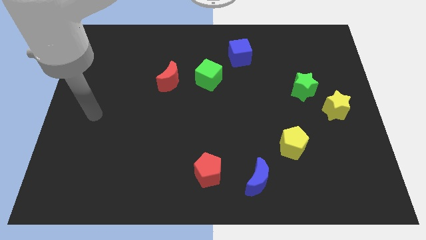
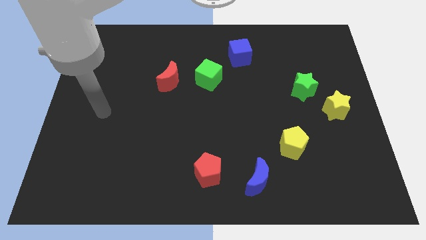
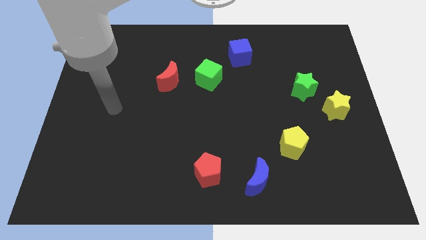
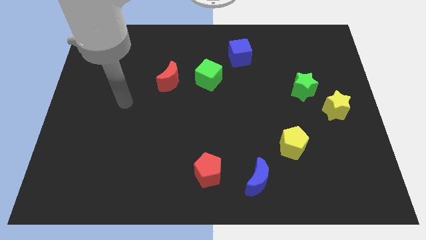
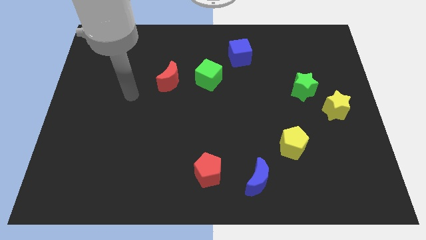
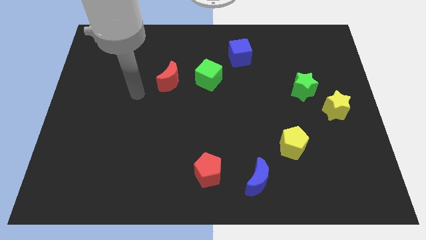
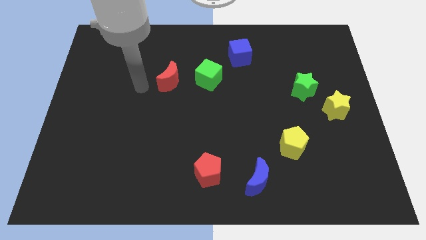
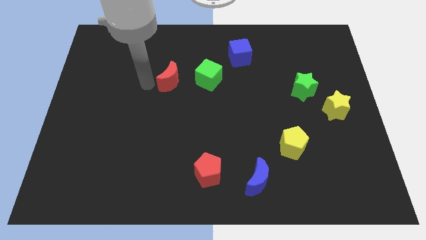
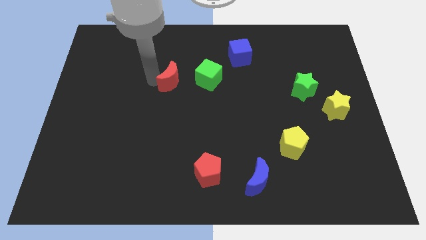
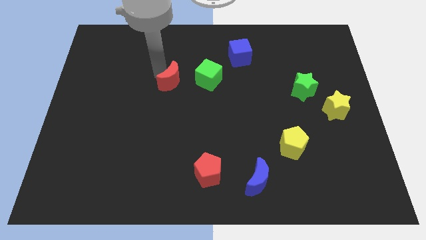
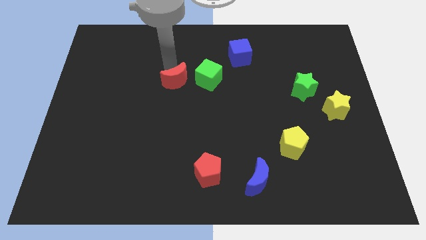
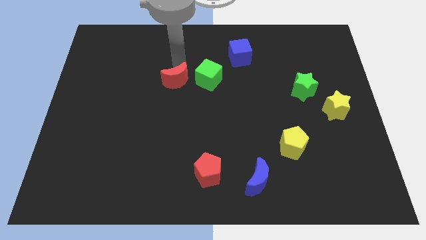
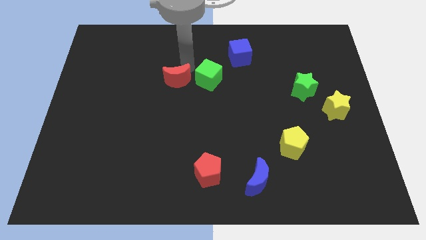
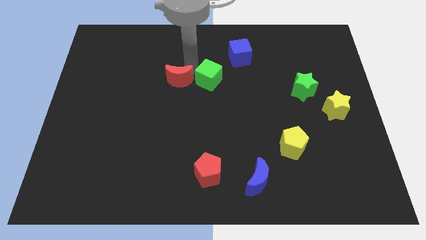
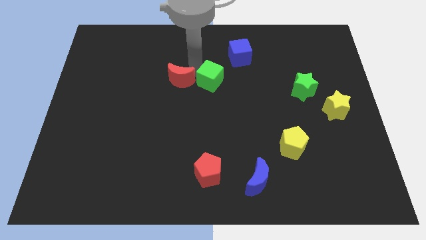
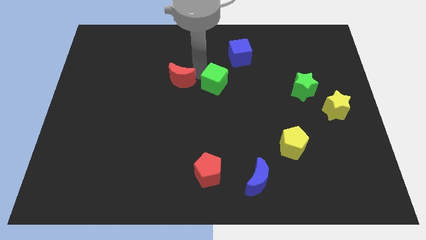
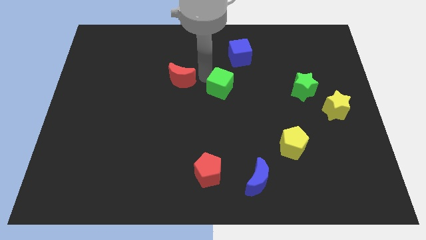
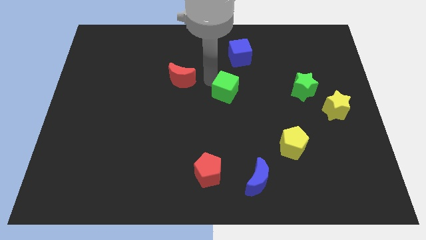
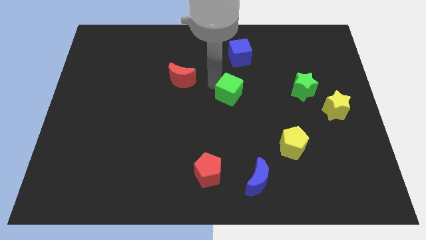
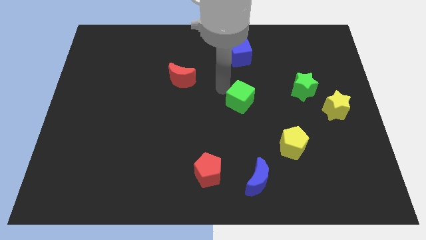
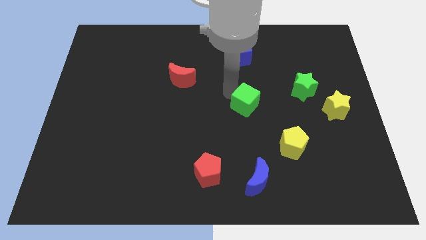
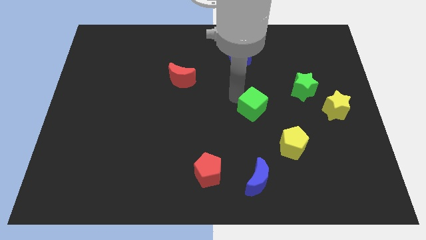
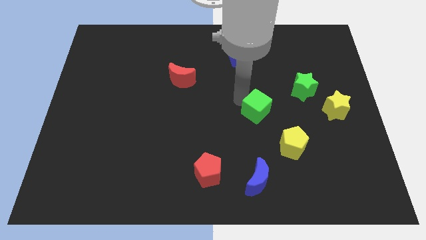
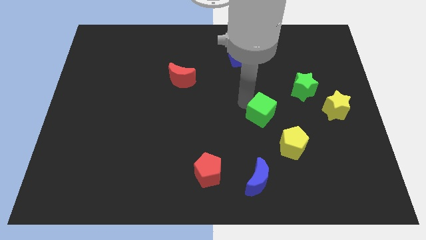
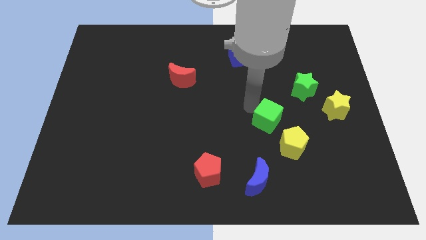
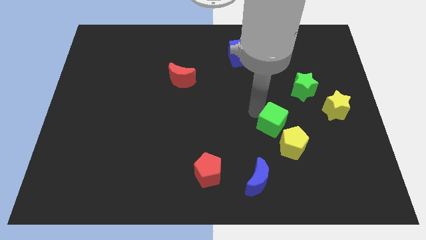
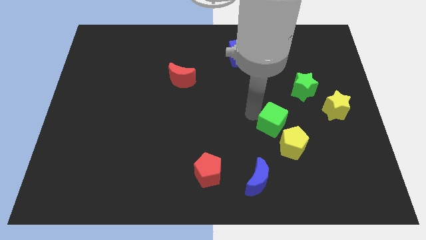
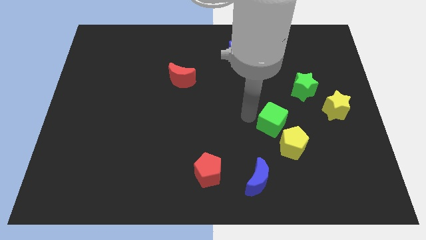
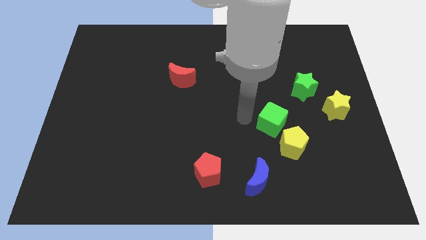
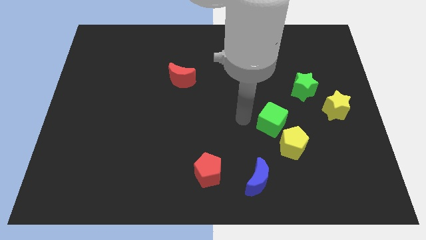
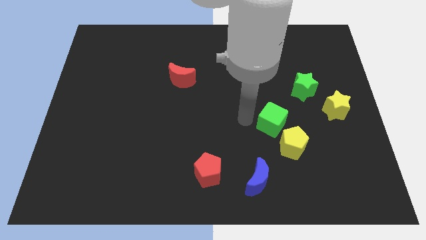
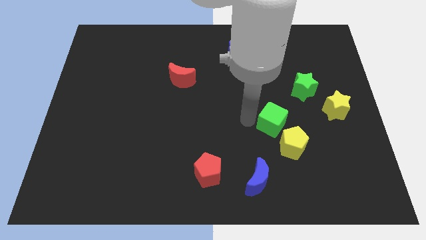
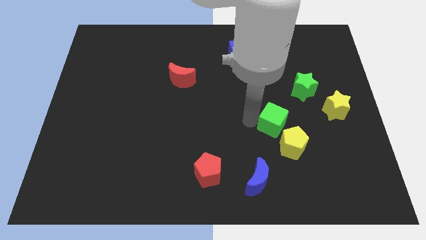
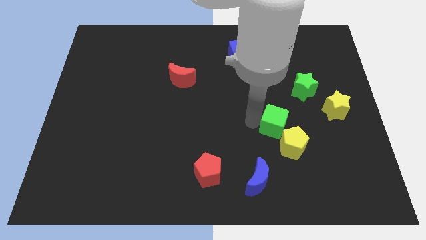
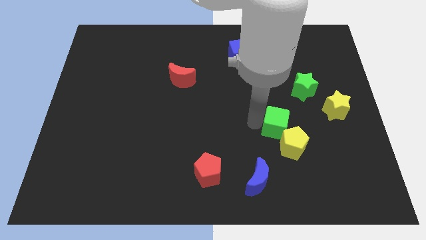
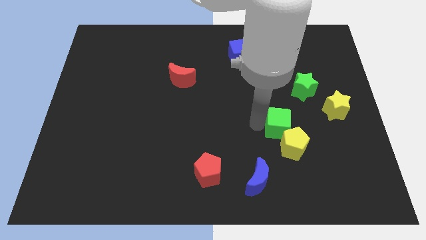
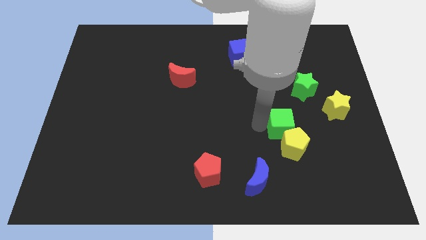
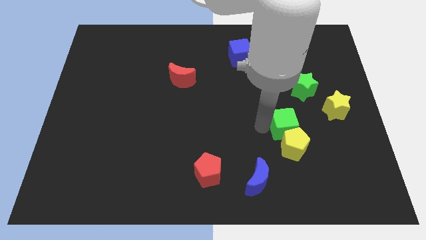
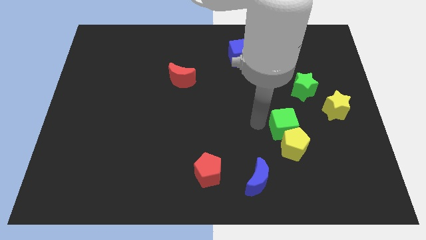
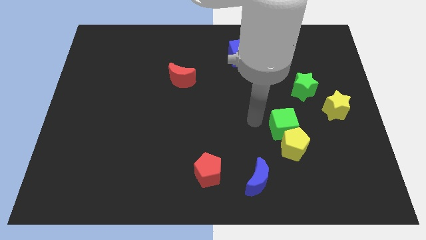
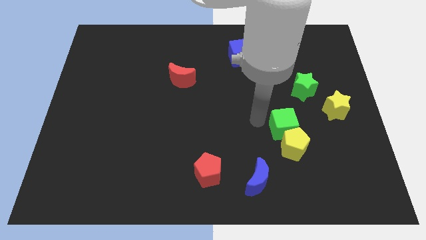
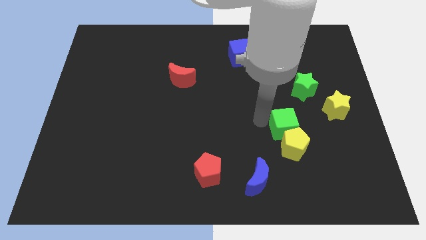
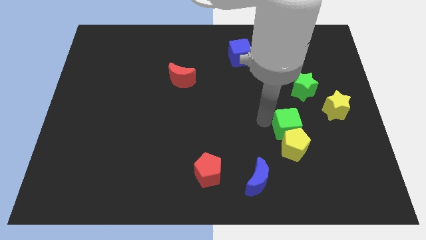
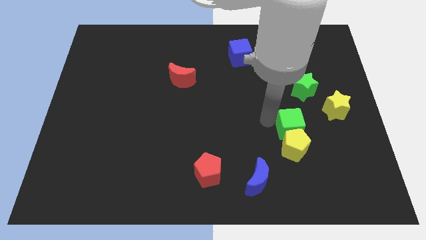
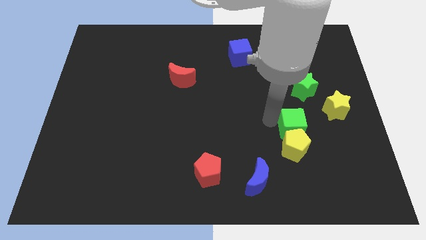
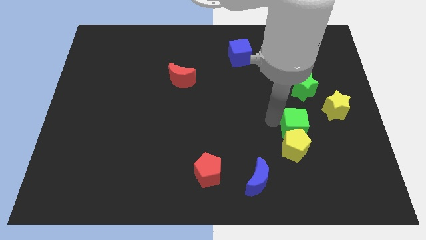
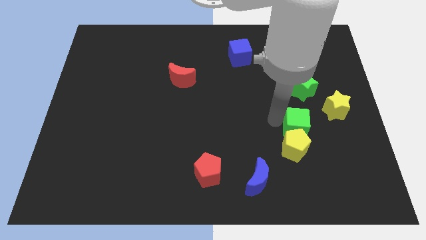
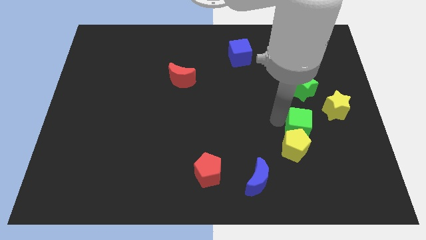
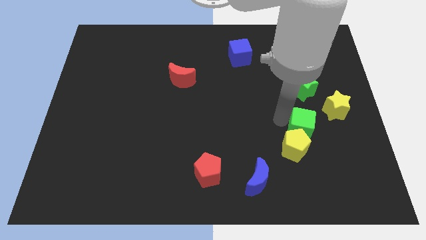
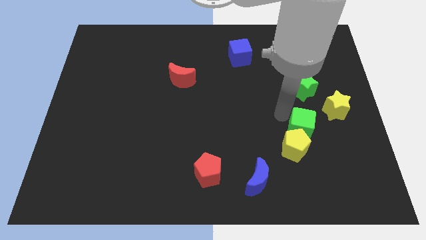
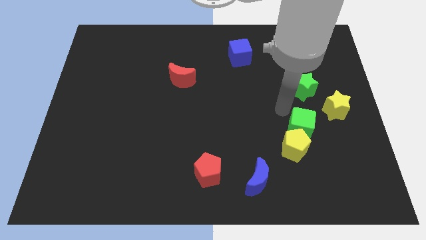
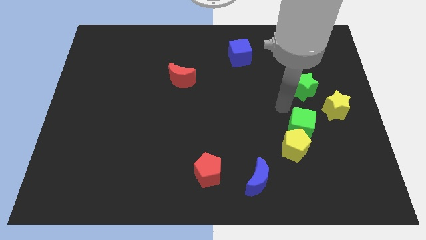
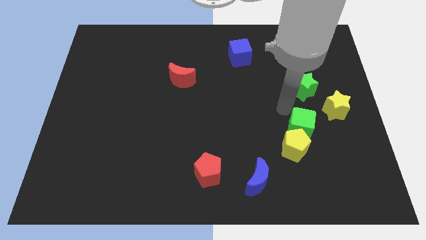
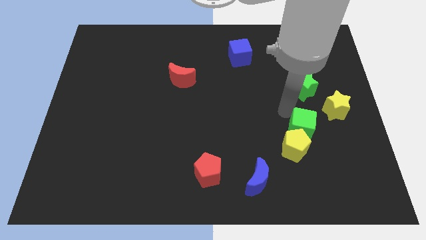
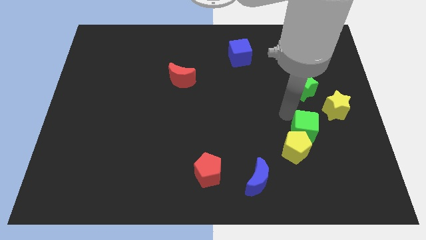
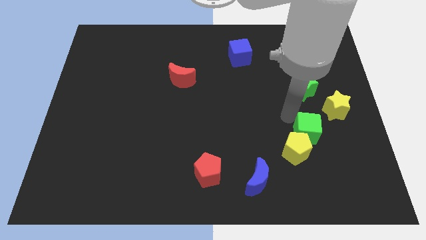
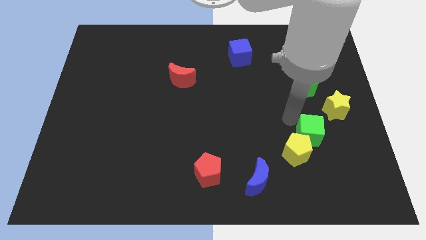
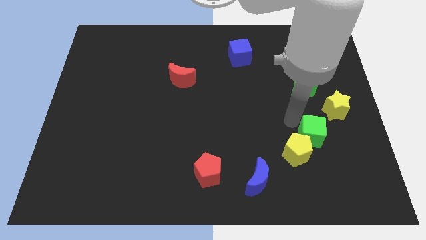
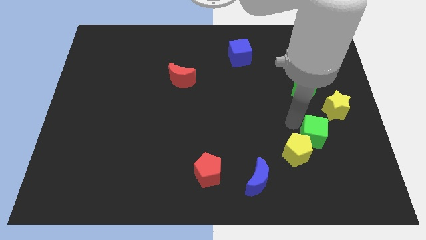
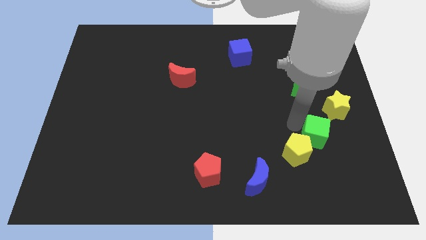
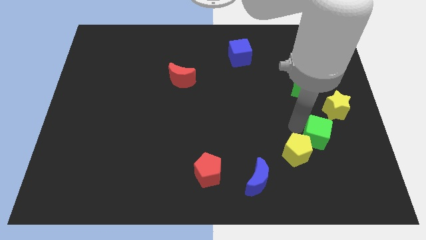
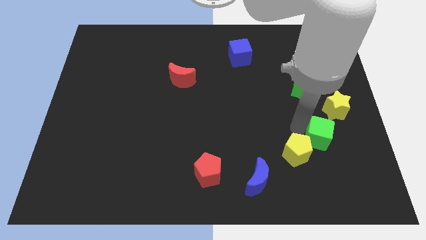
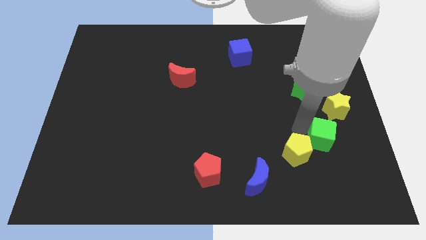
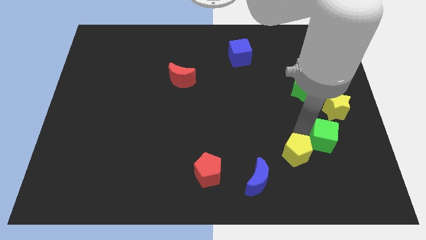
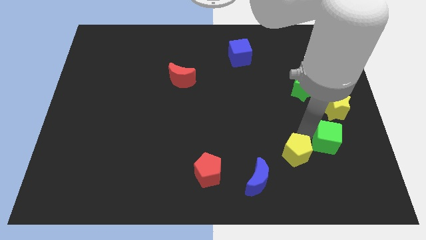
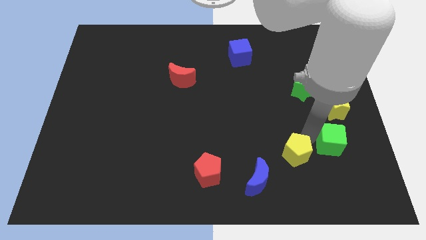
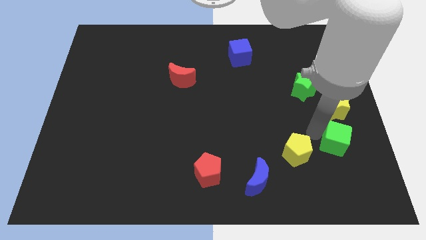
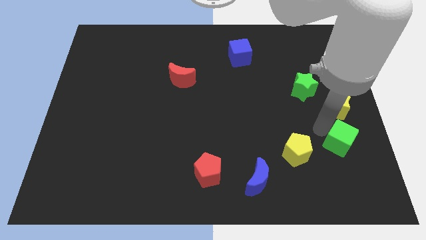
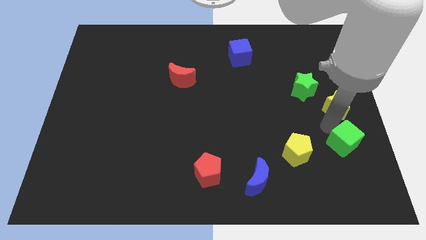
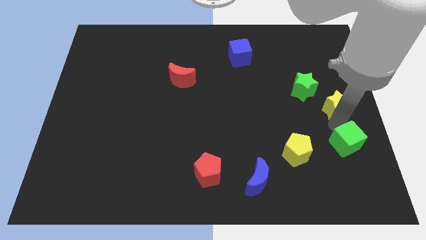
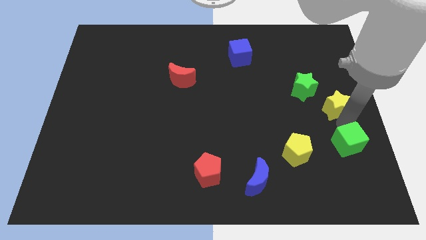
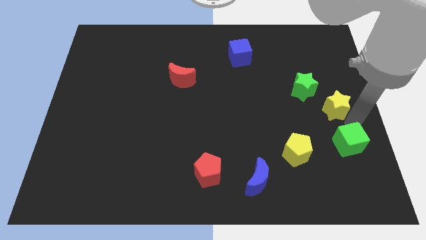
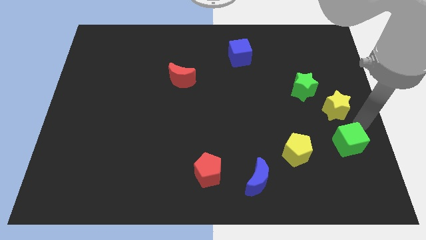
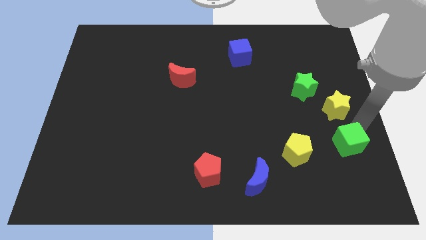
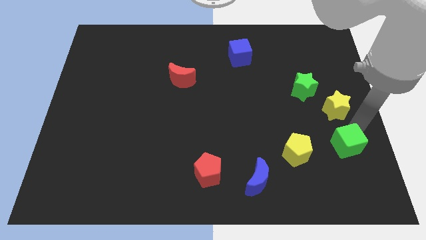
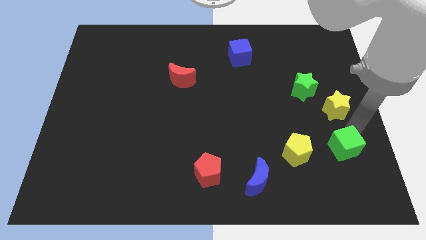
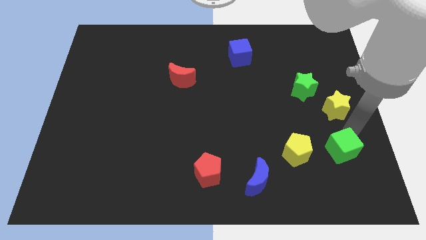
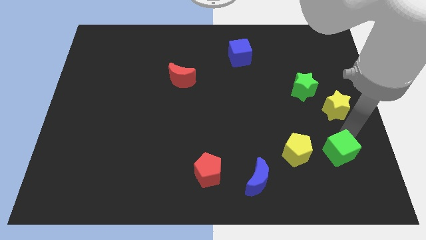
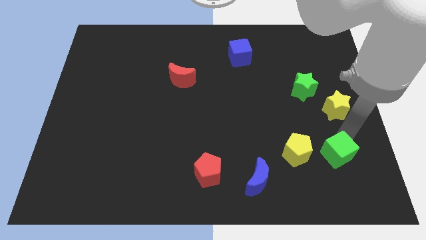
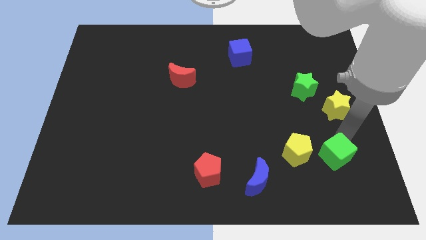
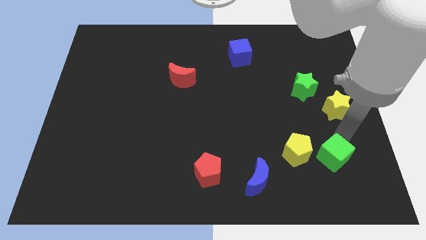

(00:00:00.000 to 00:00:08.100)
put the green cube to the bottom right of the yellow pentagon
